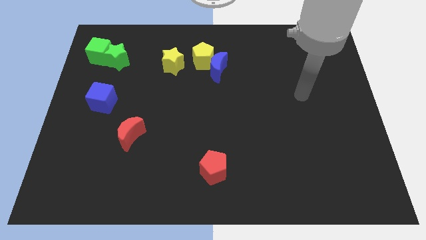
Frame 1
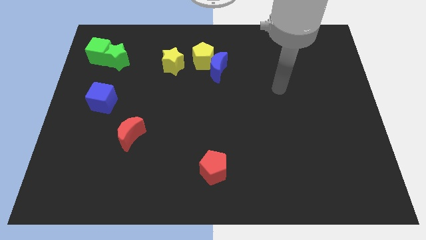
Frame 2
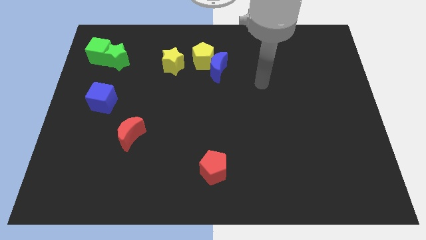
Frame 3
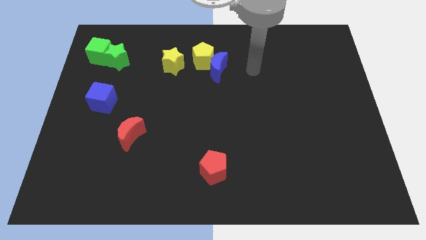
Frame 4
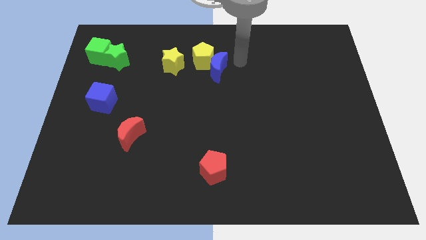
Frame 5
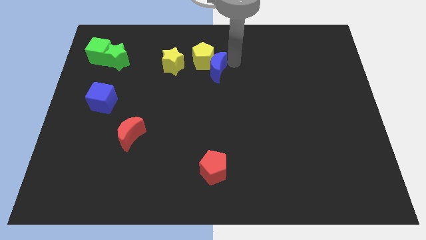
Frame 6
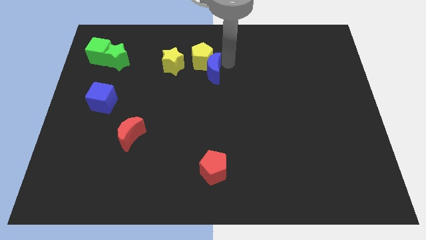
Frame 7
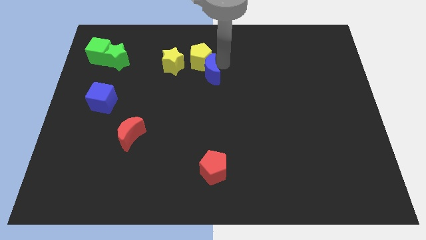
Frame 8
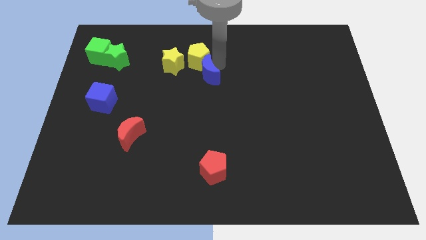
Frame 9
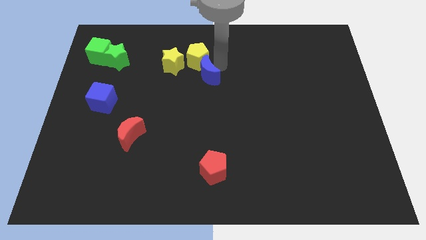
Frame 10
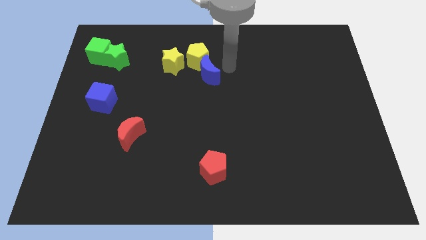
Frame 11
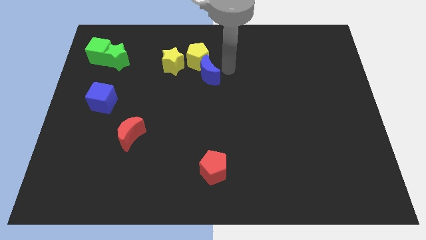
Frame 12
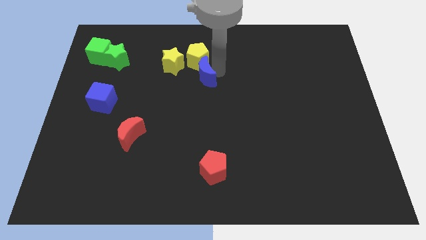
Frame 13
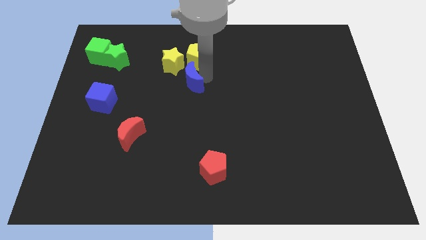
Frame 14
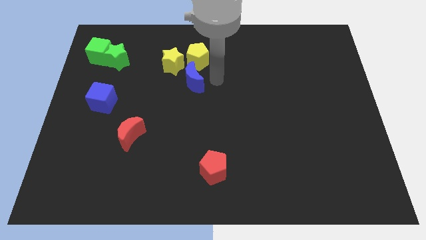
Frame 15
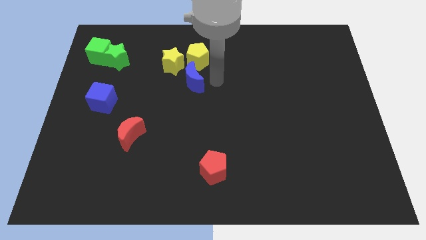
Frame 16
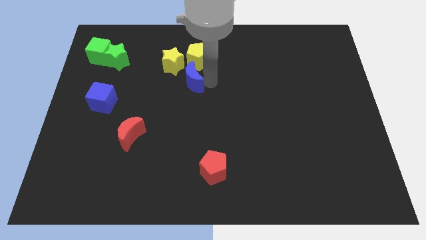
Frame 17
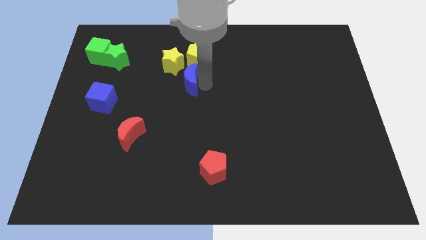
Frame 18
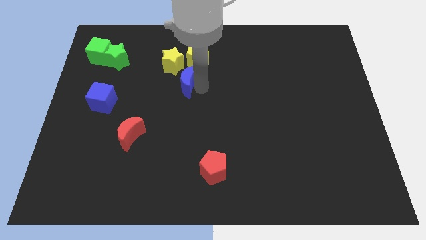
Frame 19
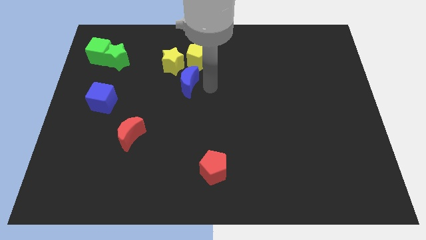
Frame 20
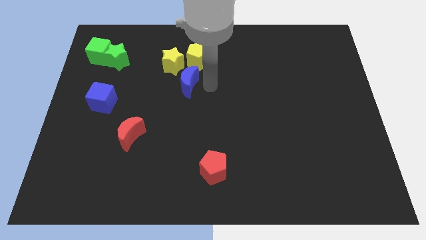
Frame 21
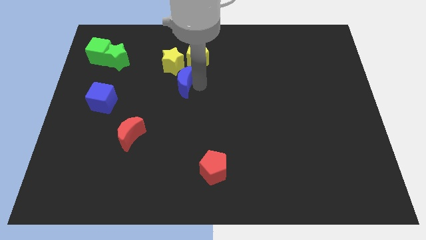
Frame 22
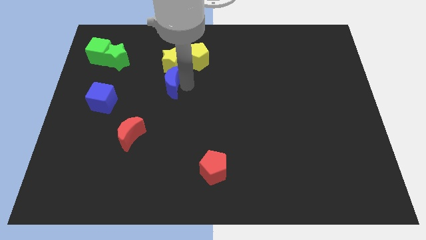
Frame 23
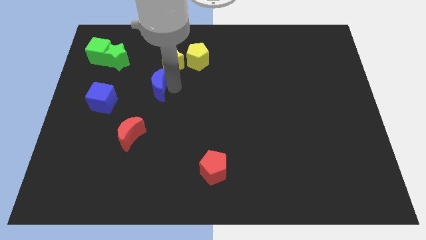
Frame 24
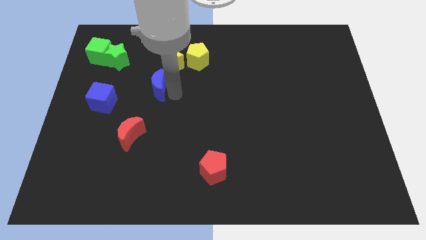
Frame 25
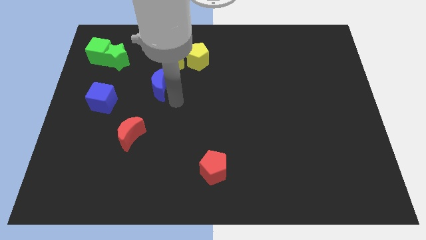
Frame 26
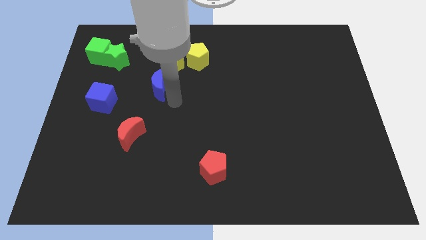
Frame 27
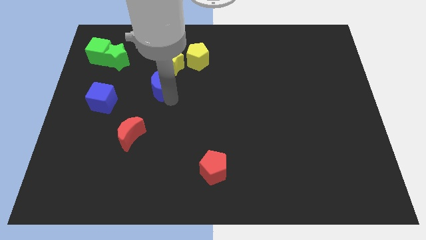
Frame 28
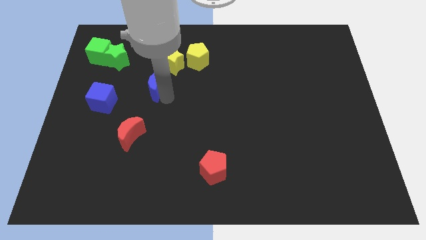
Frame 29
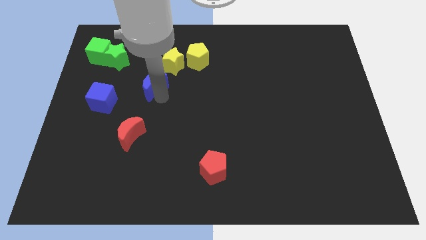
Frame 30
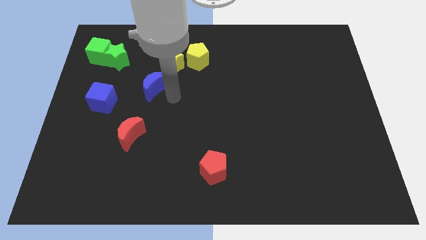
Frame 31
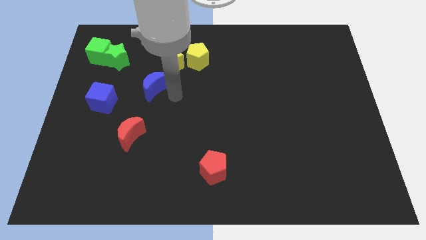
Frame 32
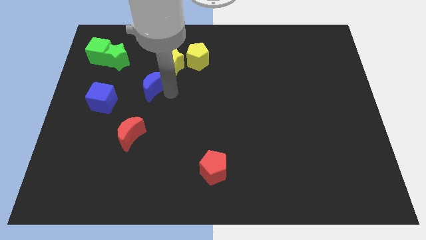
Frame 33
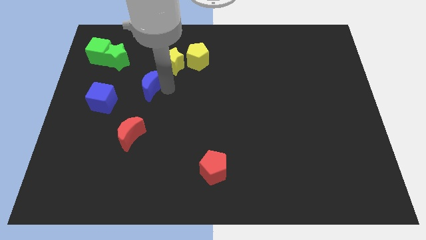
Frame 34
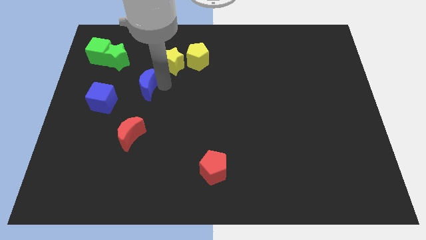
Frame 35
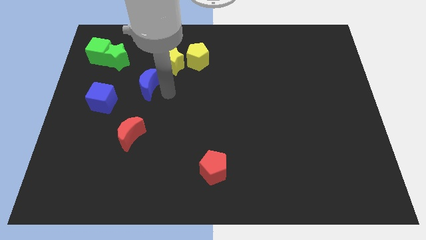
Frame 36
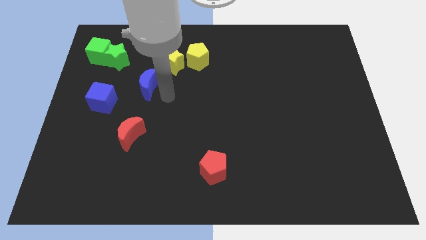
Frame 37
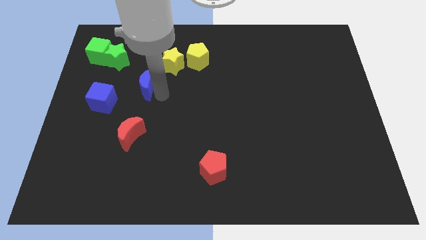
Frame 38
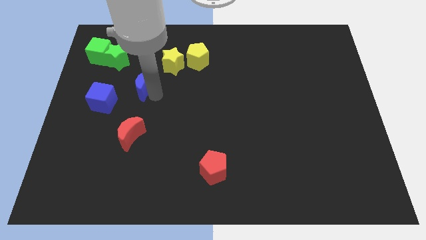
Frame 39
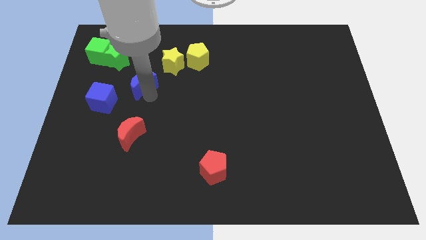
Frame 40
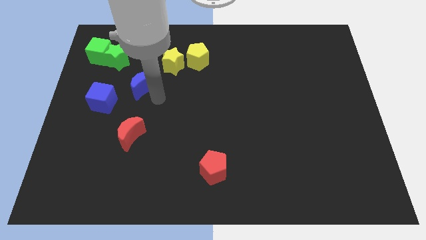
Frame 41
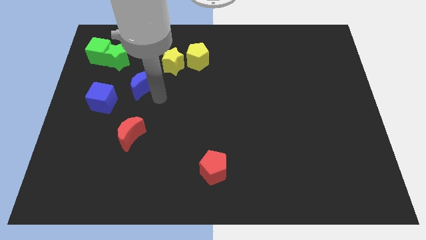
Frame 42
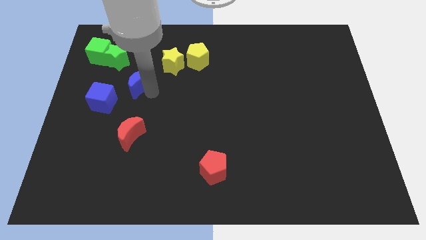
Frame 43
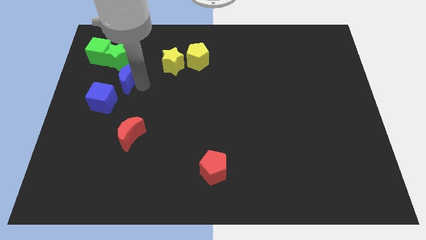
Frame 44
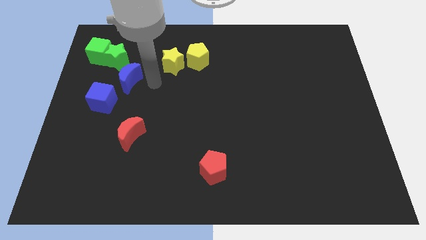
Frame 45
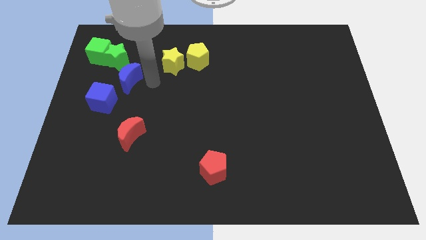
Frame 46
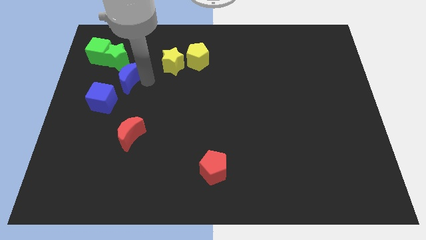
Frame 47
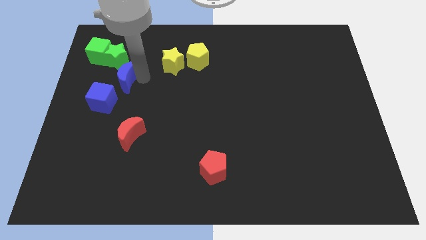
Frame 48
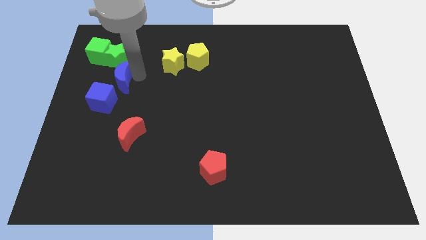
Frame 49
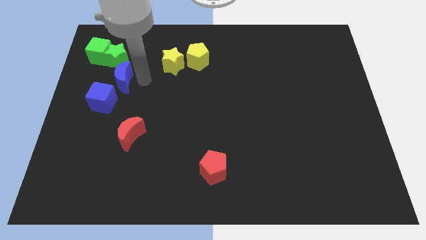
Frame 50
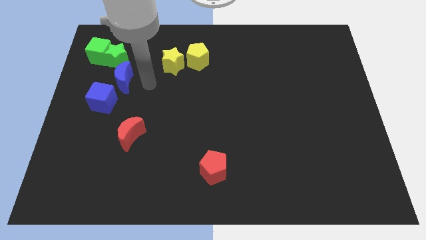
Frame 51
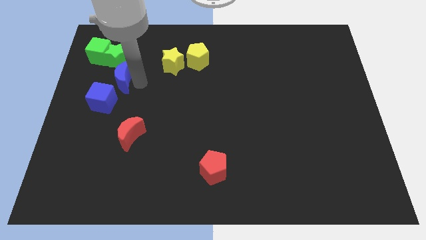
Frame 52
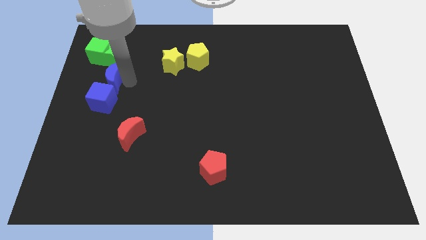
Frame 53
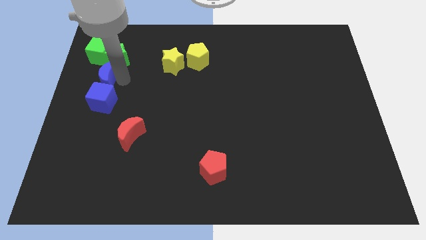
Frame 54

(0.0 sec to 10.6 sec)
put the blue moon to the left side

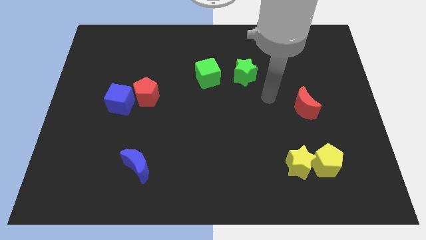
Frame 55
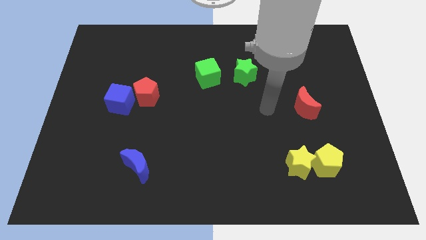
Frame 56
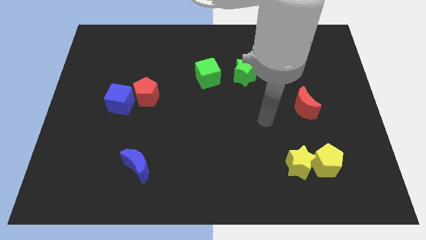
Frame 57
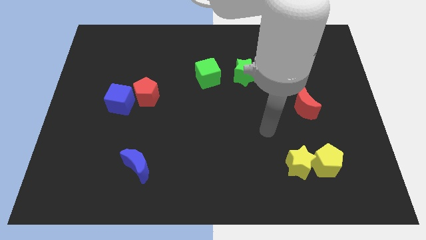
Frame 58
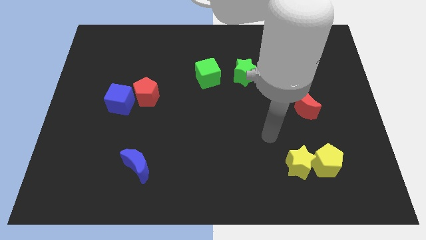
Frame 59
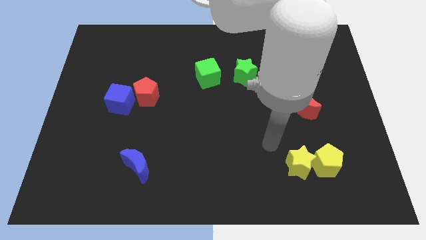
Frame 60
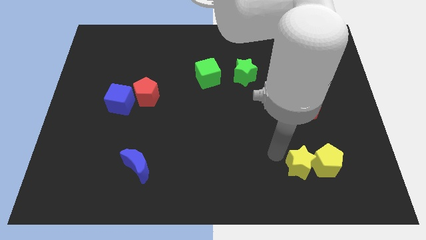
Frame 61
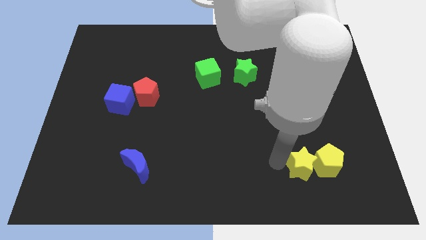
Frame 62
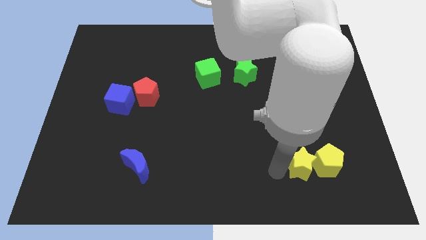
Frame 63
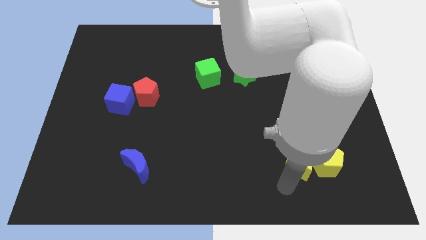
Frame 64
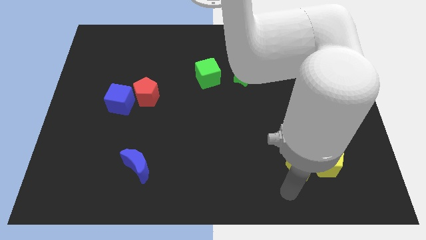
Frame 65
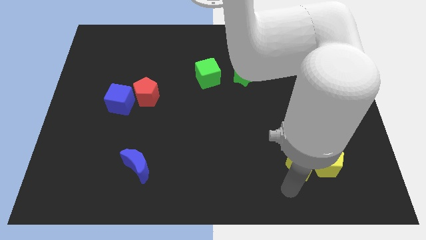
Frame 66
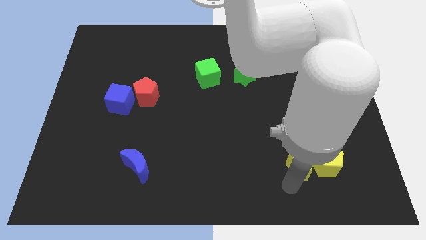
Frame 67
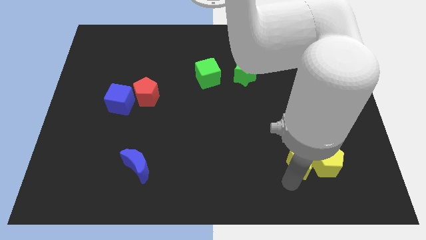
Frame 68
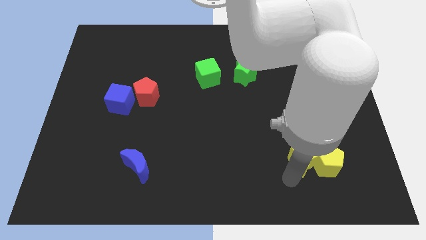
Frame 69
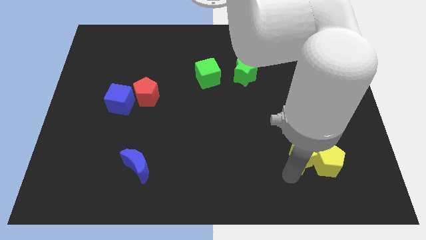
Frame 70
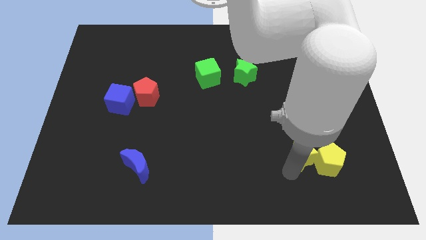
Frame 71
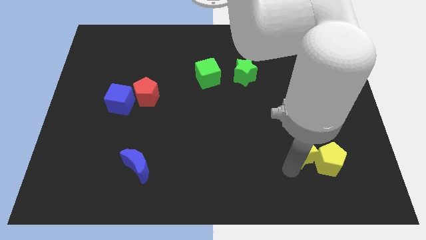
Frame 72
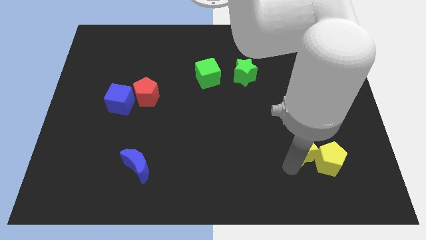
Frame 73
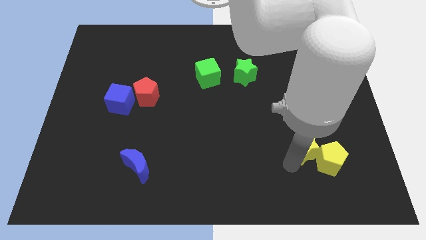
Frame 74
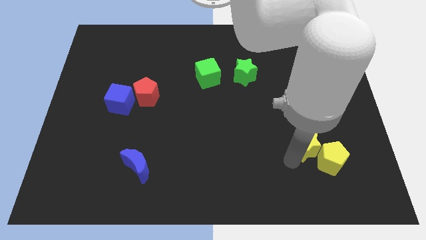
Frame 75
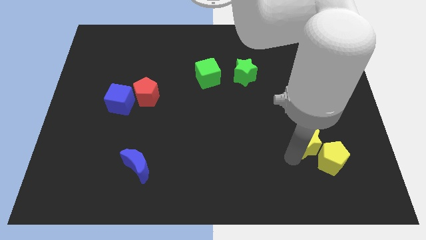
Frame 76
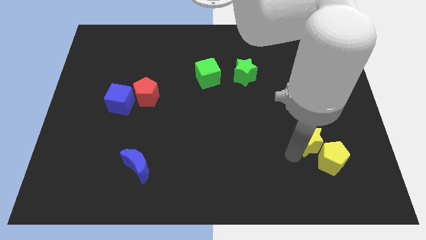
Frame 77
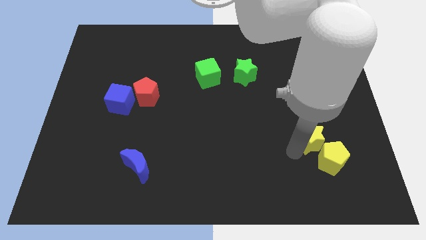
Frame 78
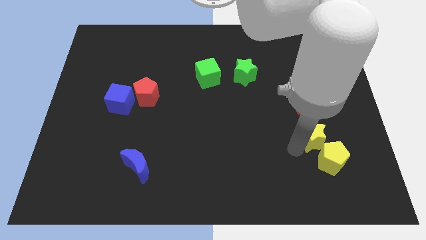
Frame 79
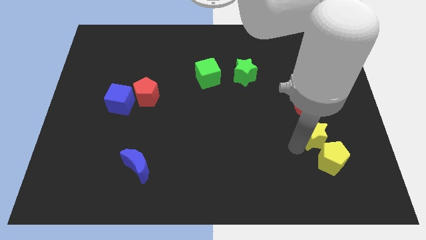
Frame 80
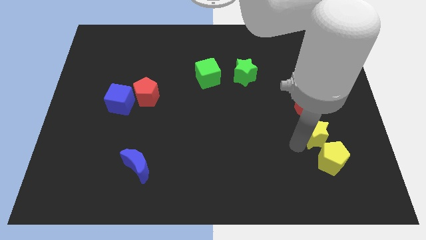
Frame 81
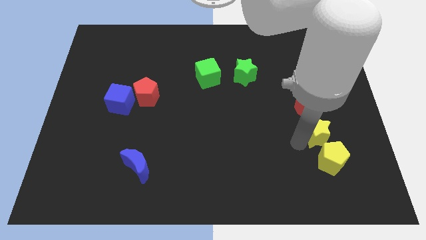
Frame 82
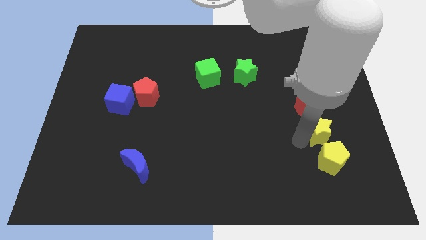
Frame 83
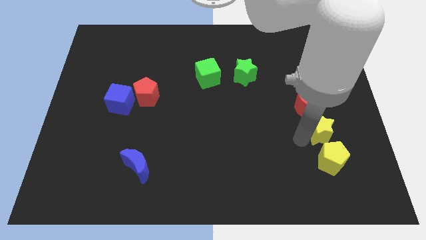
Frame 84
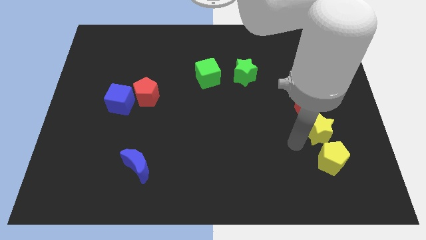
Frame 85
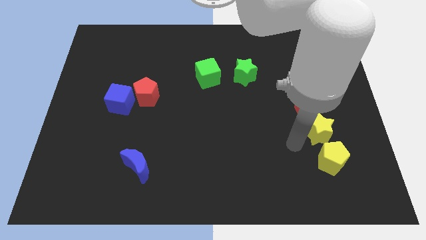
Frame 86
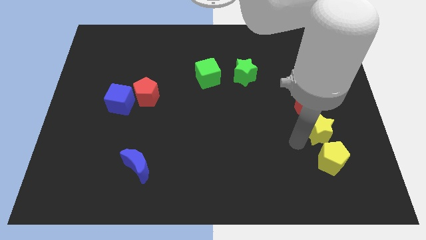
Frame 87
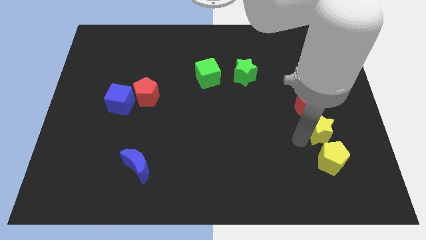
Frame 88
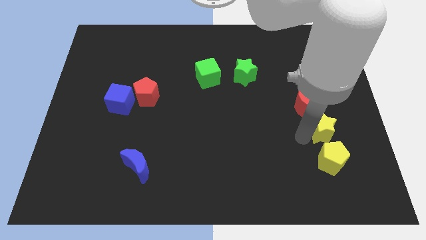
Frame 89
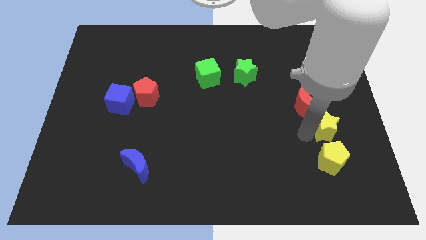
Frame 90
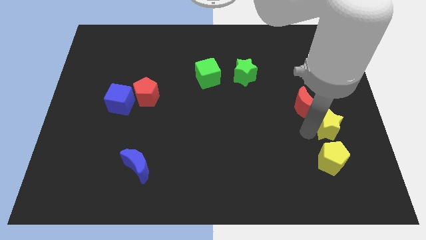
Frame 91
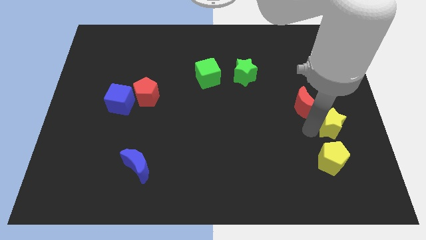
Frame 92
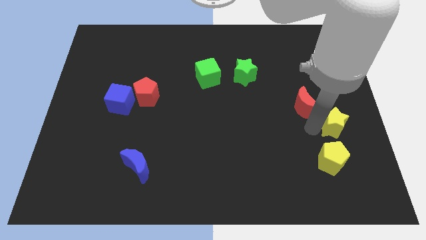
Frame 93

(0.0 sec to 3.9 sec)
move the yellow star to the right side of the board
